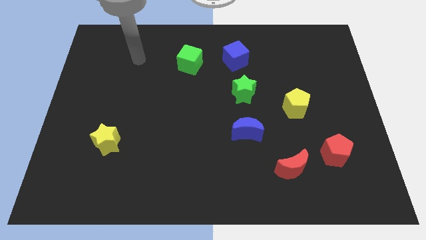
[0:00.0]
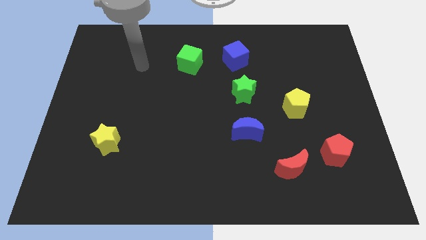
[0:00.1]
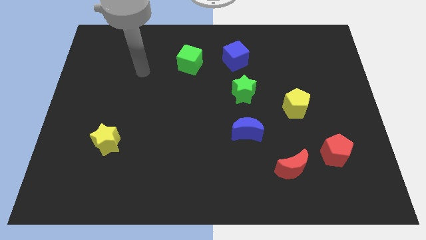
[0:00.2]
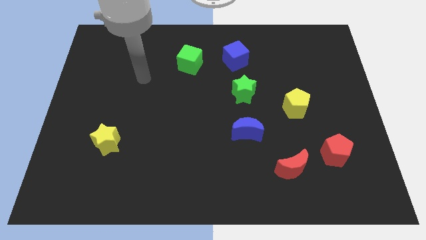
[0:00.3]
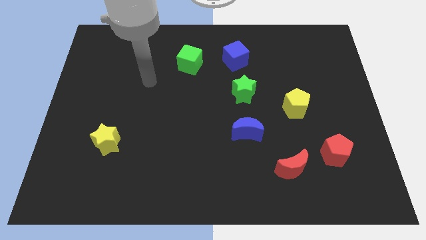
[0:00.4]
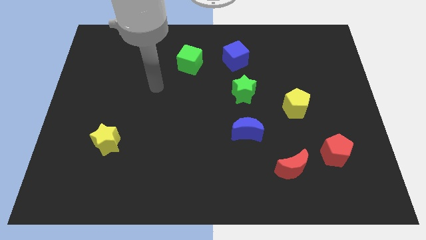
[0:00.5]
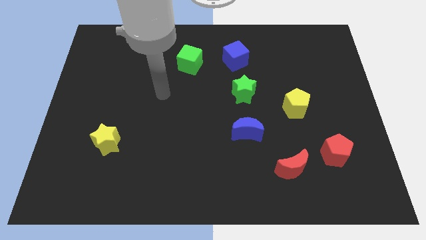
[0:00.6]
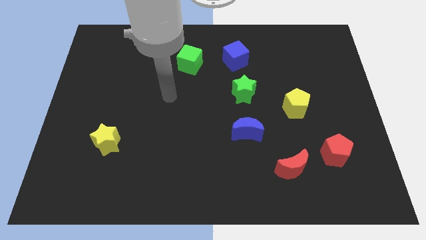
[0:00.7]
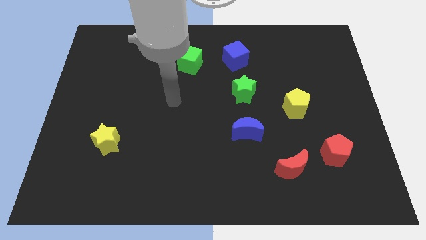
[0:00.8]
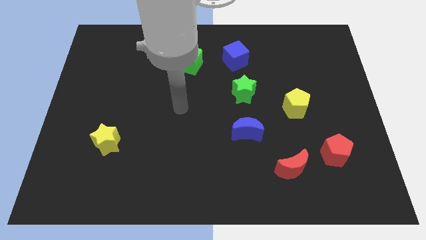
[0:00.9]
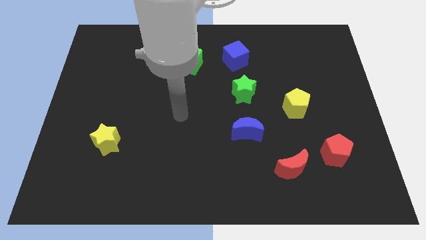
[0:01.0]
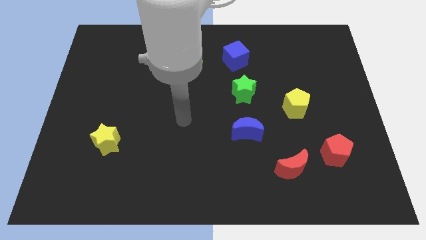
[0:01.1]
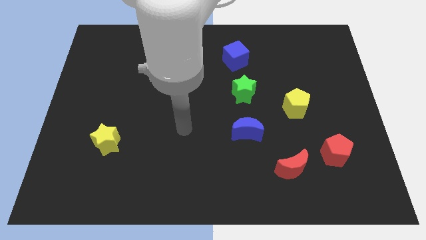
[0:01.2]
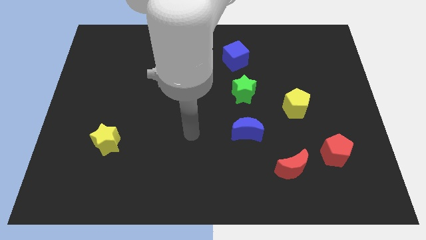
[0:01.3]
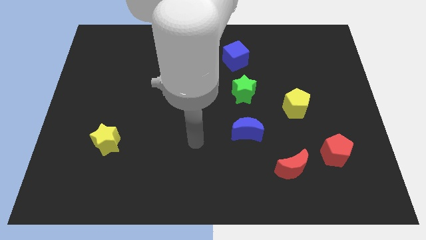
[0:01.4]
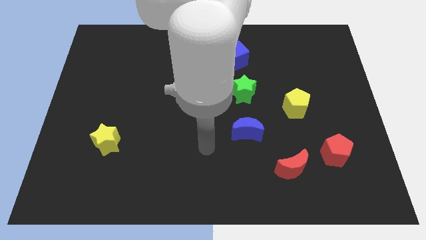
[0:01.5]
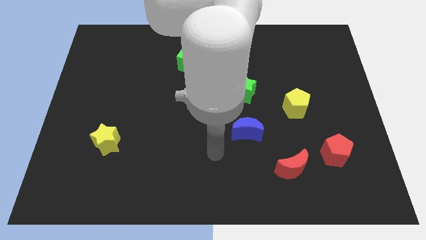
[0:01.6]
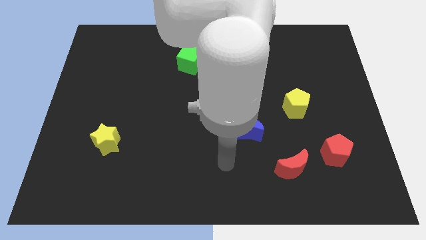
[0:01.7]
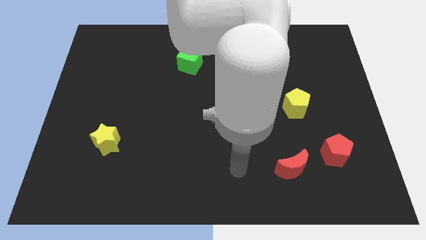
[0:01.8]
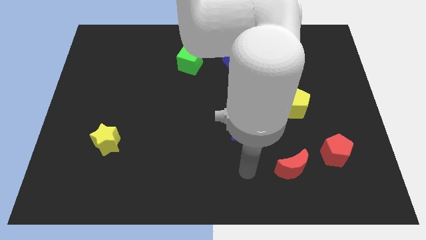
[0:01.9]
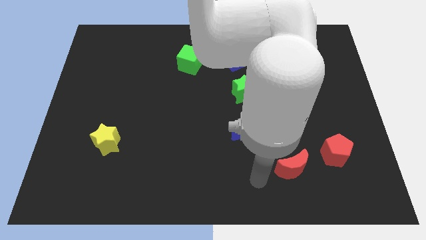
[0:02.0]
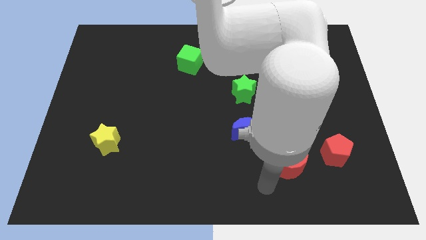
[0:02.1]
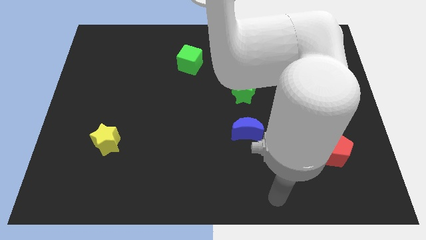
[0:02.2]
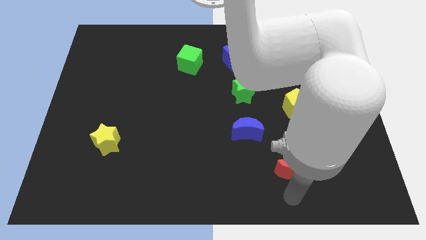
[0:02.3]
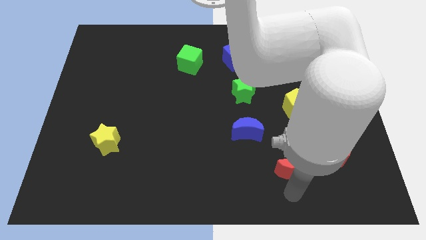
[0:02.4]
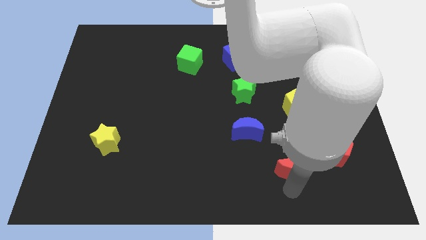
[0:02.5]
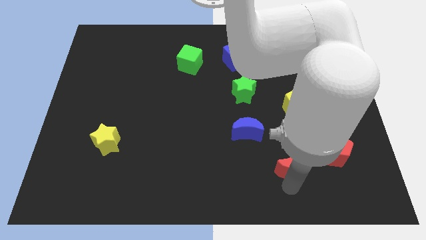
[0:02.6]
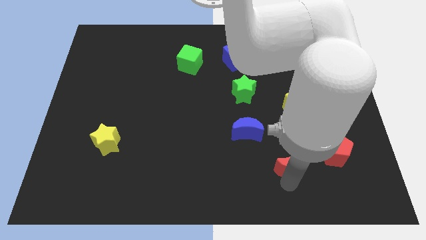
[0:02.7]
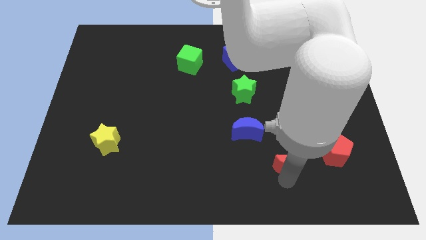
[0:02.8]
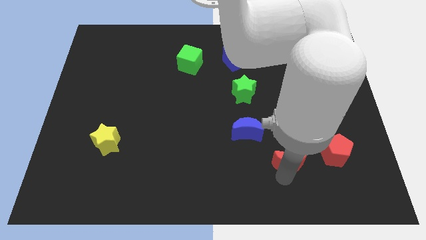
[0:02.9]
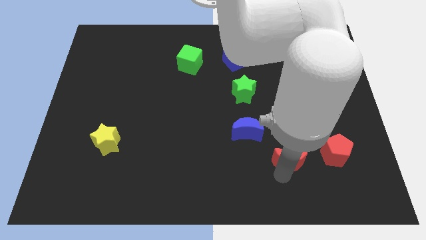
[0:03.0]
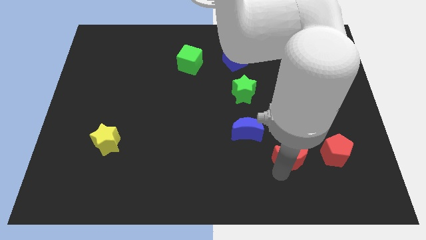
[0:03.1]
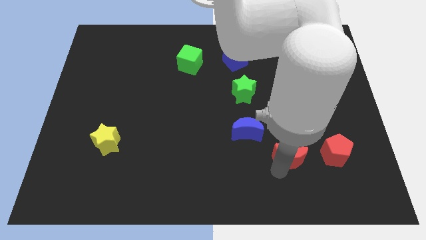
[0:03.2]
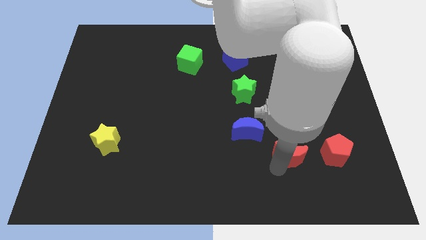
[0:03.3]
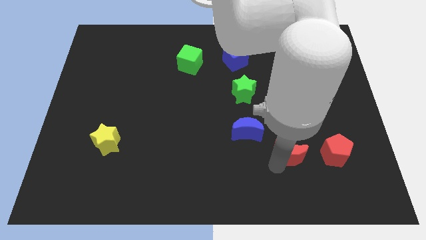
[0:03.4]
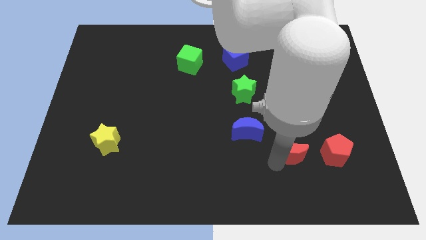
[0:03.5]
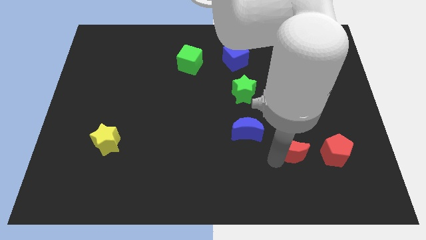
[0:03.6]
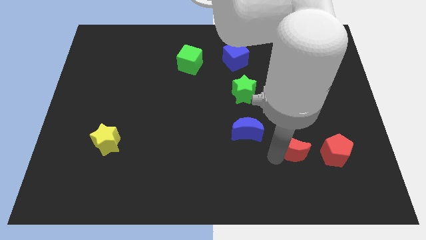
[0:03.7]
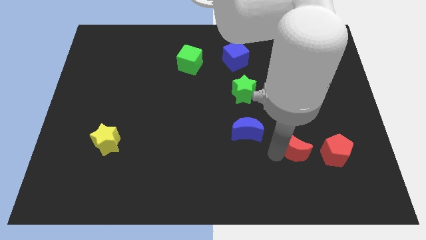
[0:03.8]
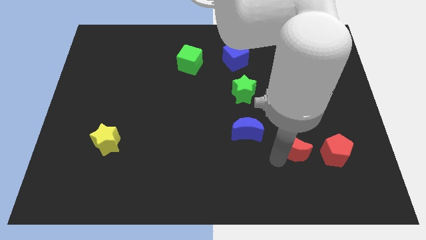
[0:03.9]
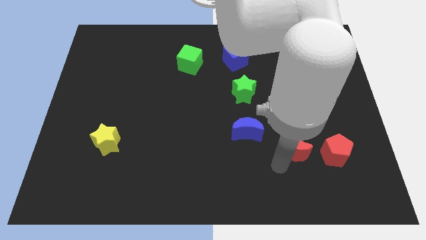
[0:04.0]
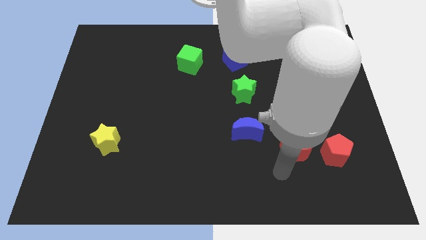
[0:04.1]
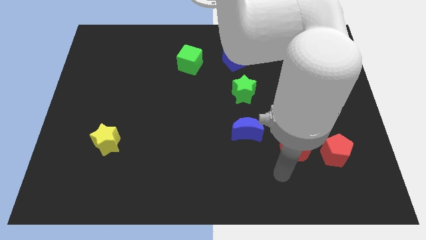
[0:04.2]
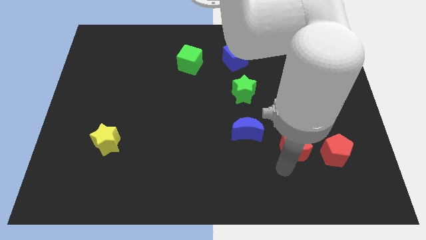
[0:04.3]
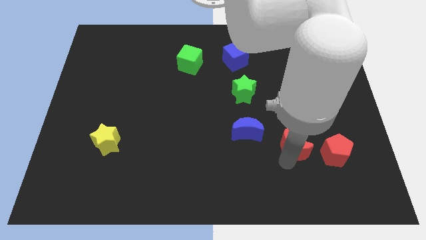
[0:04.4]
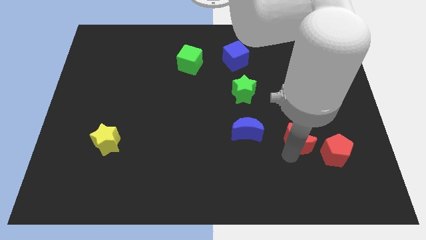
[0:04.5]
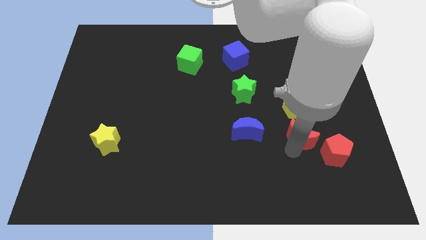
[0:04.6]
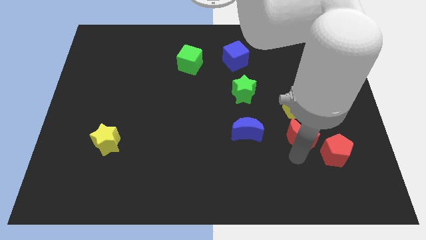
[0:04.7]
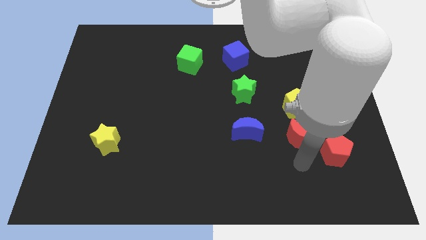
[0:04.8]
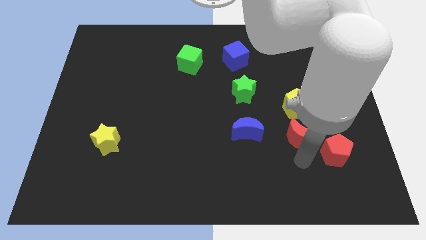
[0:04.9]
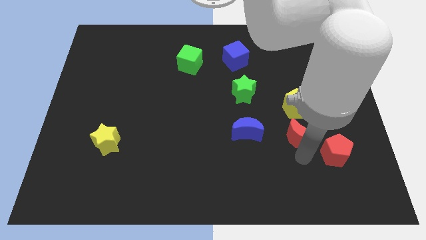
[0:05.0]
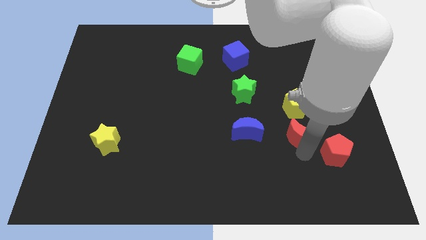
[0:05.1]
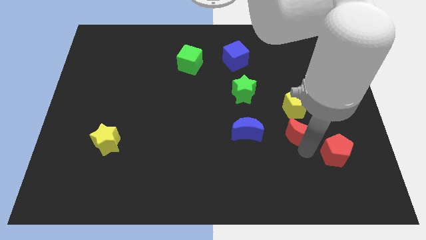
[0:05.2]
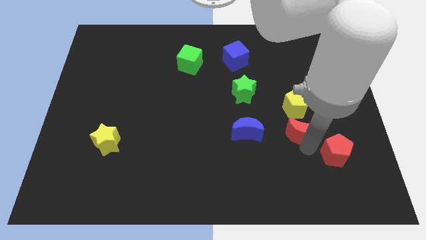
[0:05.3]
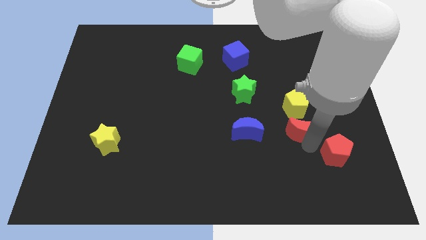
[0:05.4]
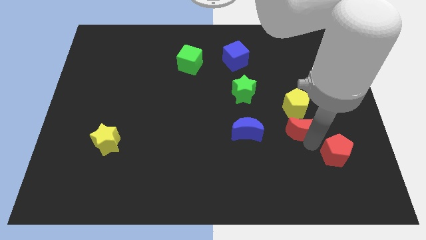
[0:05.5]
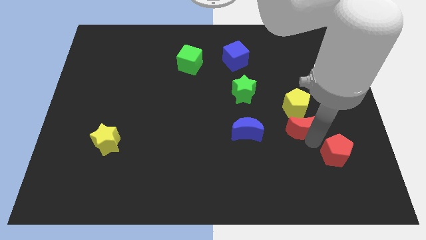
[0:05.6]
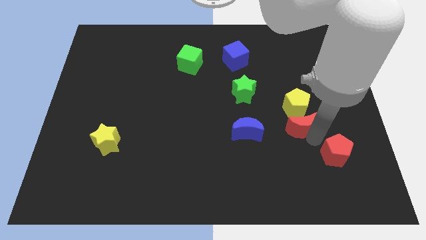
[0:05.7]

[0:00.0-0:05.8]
slide the red moon close to the yellow pentagon

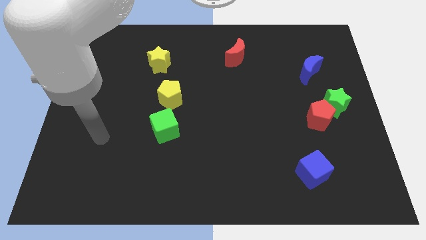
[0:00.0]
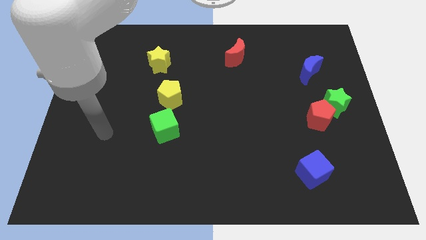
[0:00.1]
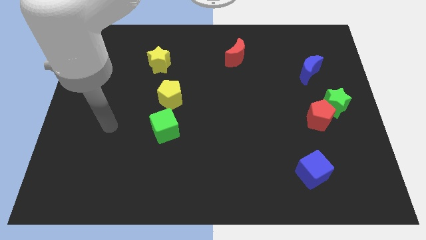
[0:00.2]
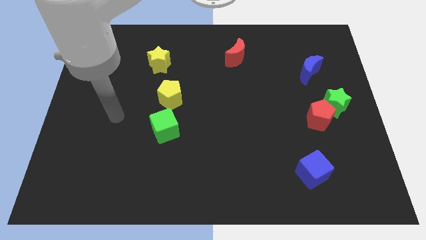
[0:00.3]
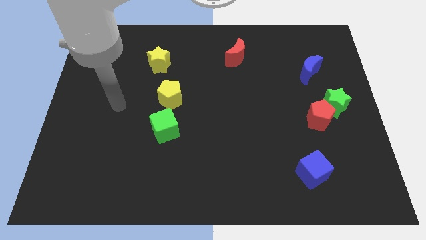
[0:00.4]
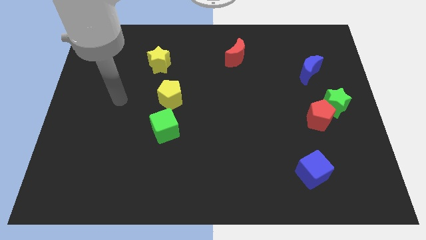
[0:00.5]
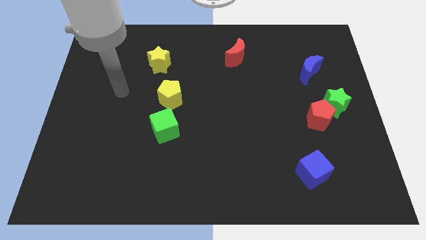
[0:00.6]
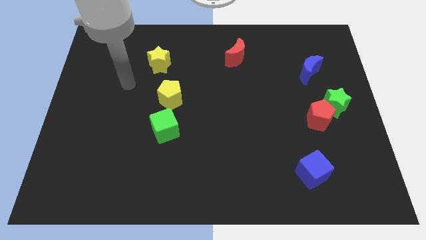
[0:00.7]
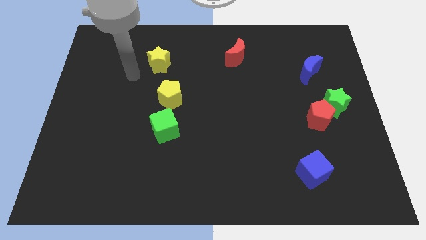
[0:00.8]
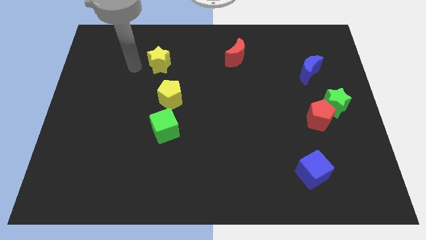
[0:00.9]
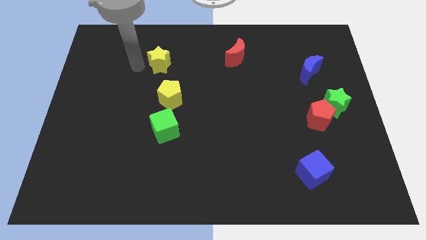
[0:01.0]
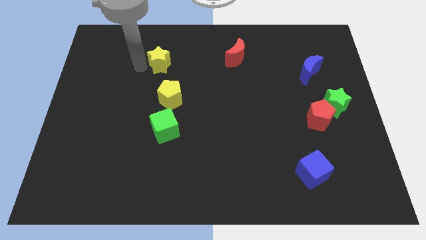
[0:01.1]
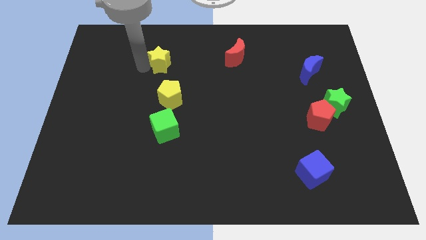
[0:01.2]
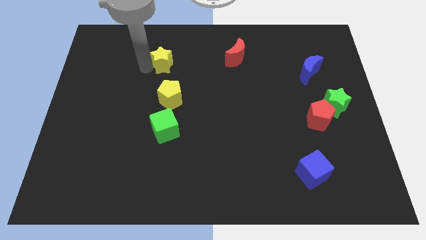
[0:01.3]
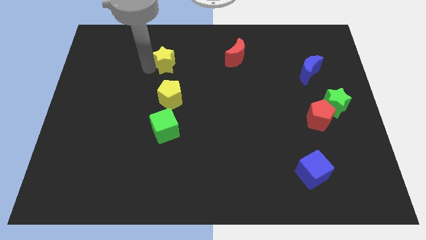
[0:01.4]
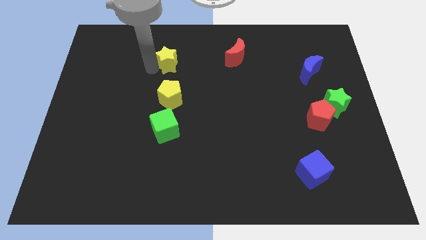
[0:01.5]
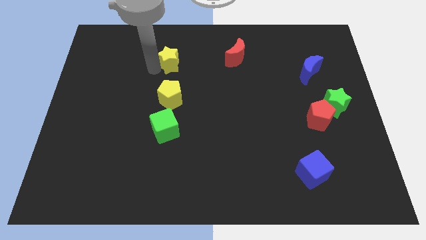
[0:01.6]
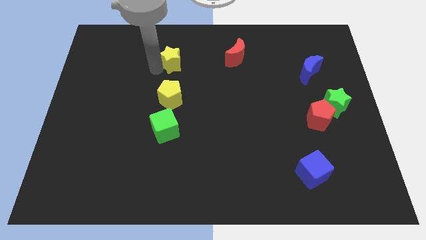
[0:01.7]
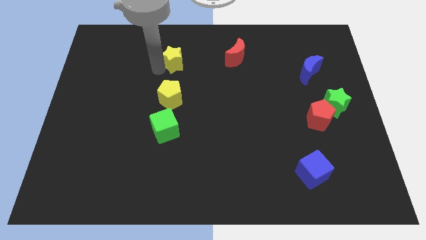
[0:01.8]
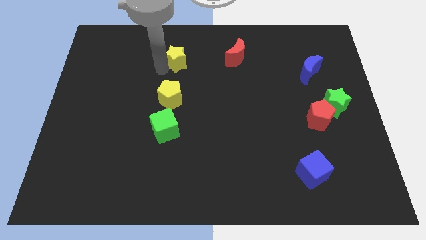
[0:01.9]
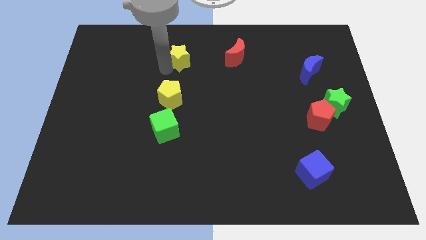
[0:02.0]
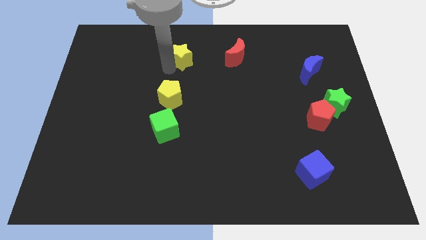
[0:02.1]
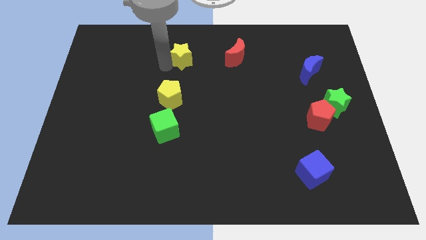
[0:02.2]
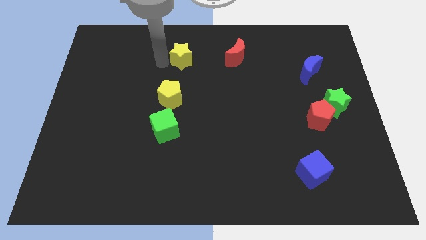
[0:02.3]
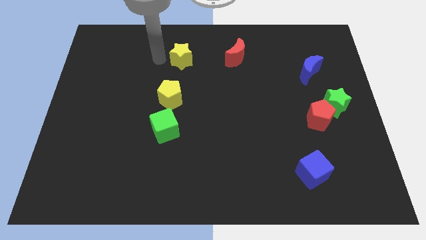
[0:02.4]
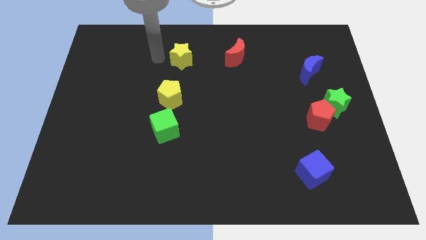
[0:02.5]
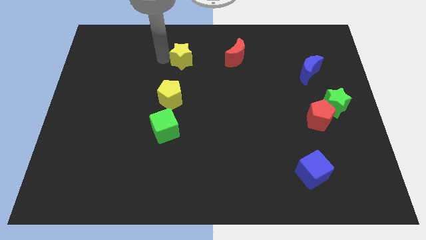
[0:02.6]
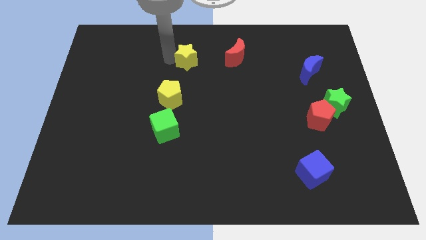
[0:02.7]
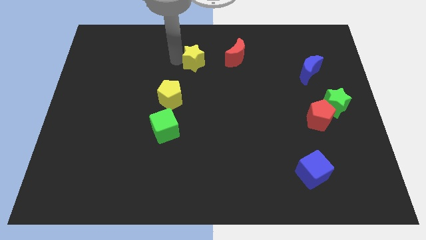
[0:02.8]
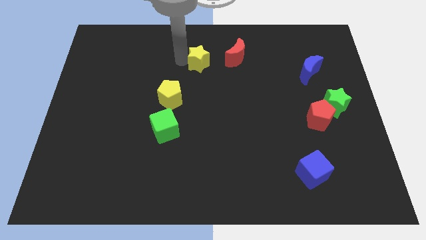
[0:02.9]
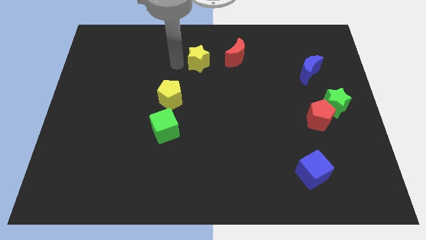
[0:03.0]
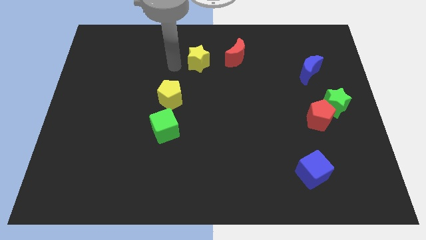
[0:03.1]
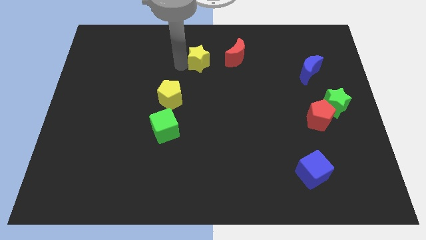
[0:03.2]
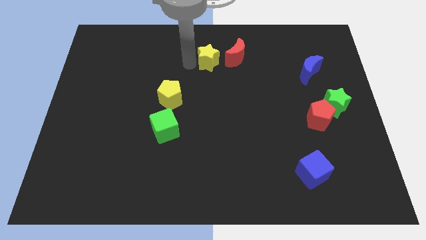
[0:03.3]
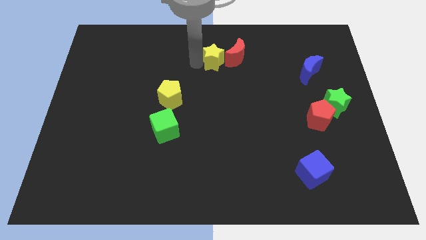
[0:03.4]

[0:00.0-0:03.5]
push the yellow star towards the red moon
